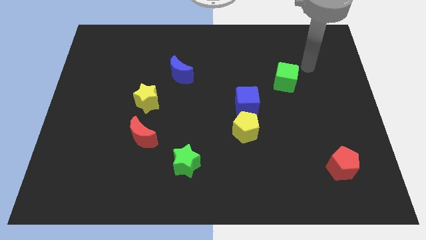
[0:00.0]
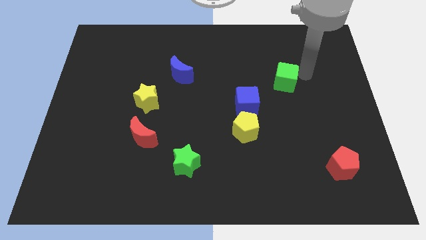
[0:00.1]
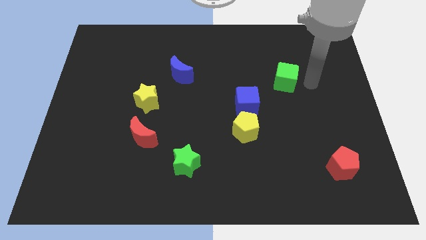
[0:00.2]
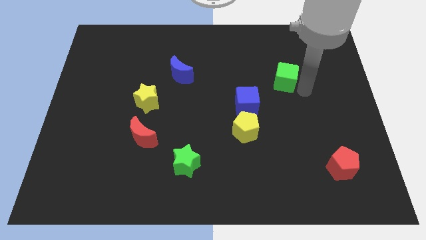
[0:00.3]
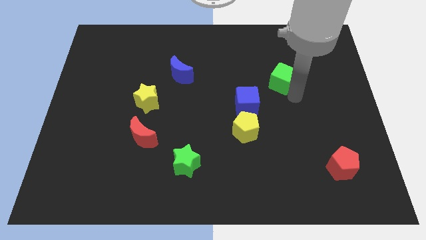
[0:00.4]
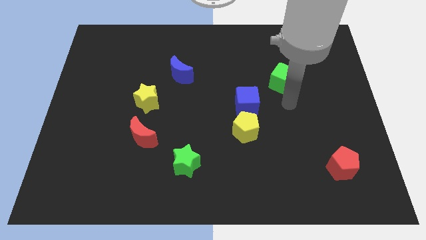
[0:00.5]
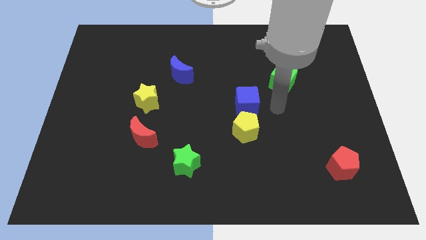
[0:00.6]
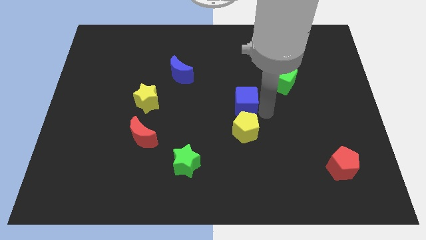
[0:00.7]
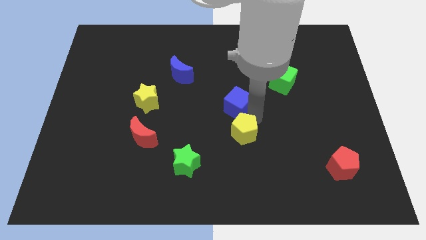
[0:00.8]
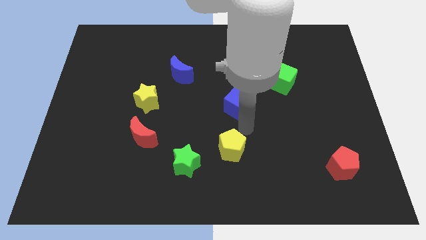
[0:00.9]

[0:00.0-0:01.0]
move the blue cube away from the yellow pentagon

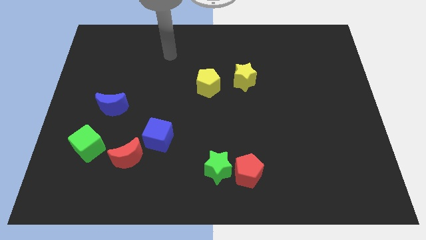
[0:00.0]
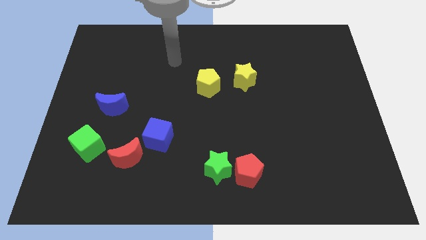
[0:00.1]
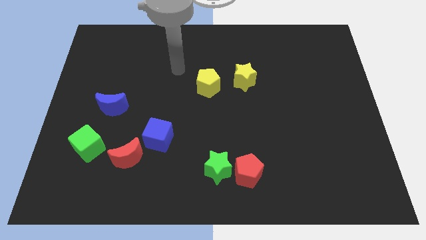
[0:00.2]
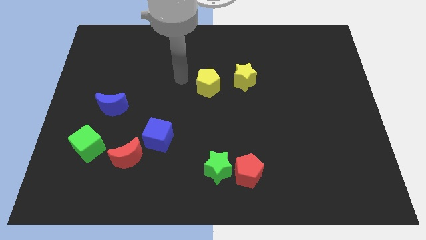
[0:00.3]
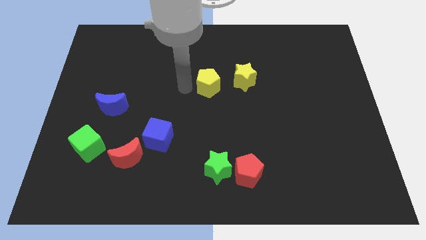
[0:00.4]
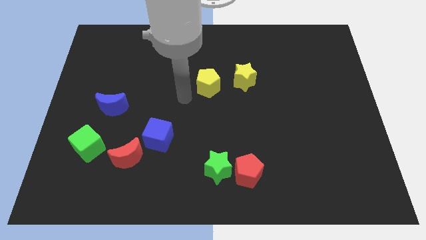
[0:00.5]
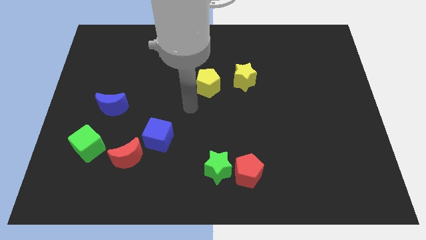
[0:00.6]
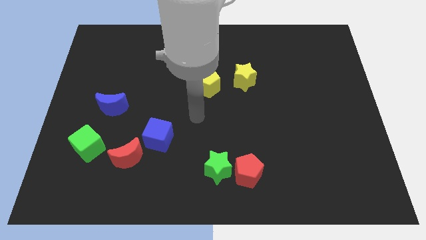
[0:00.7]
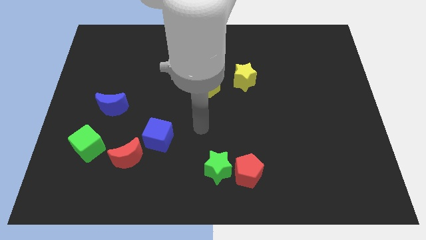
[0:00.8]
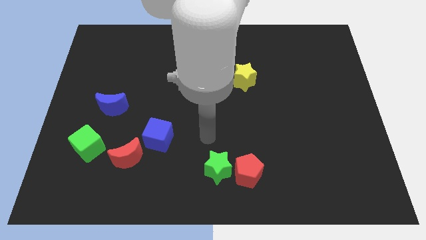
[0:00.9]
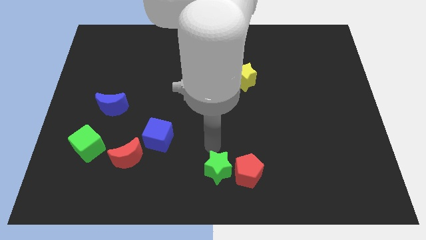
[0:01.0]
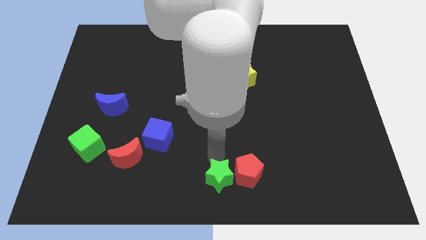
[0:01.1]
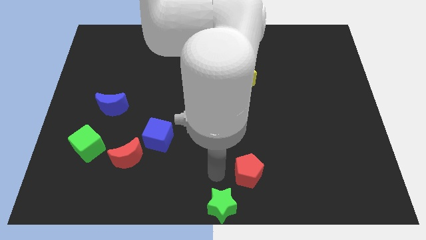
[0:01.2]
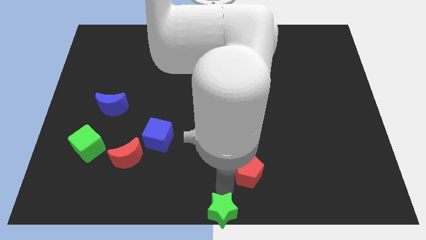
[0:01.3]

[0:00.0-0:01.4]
separate the red pentagon from the green star

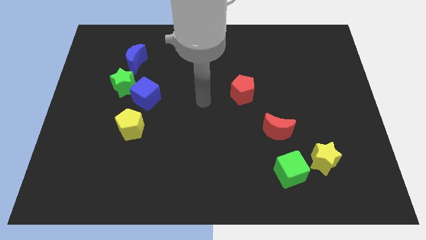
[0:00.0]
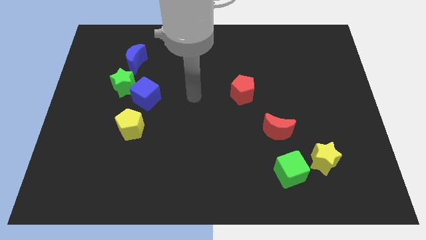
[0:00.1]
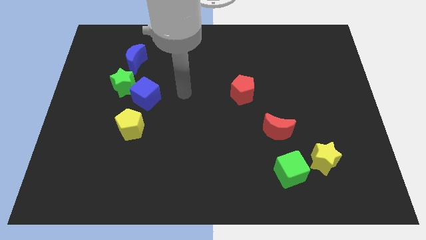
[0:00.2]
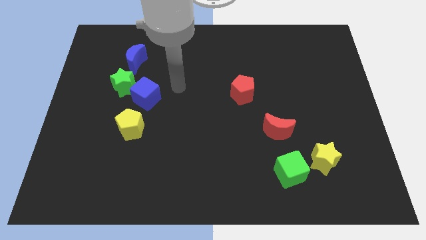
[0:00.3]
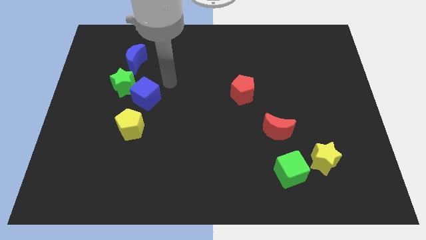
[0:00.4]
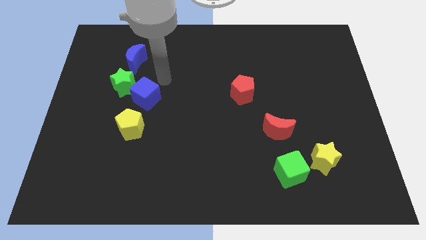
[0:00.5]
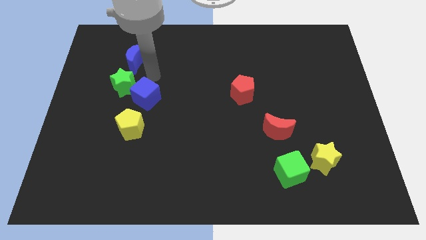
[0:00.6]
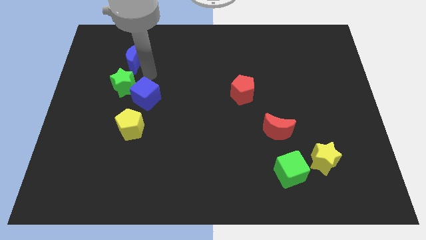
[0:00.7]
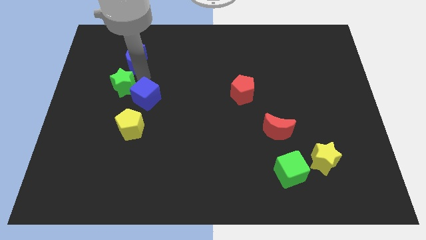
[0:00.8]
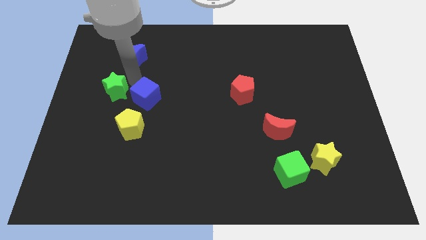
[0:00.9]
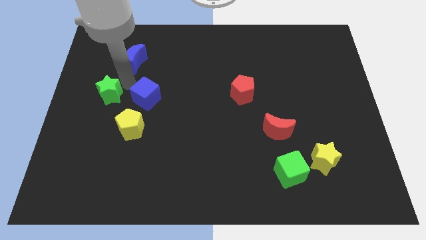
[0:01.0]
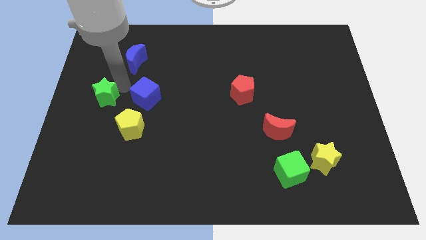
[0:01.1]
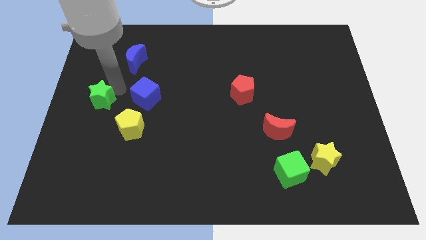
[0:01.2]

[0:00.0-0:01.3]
pull the green star apart from the blue cube and blue moon

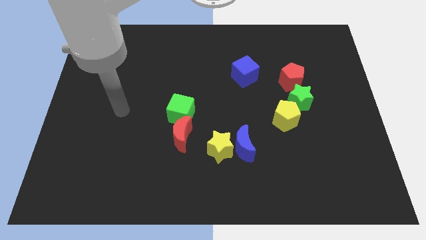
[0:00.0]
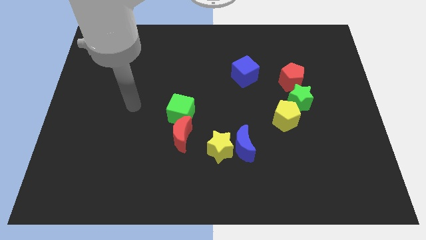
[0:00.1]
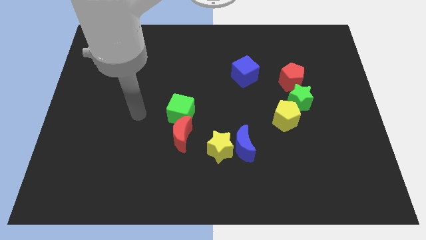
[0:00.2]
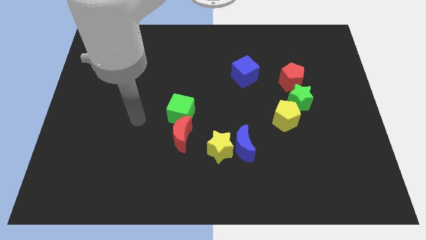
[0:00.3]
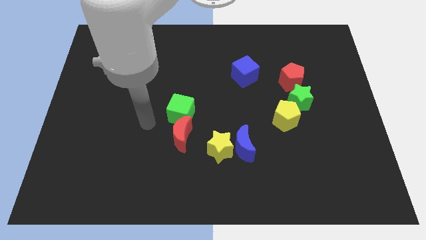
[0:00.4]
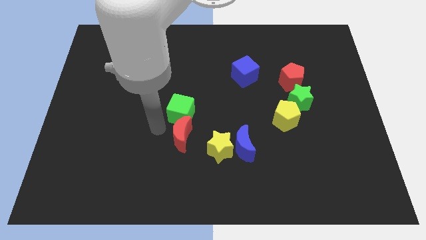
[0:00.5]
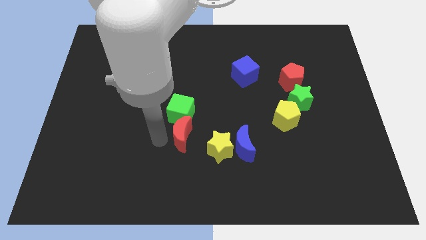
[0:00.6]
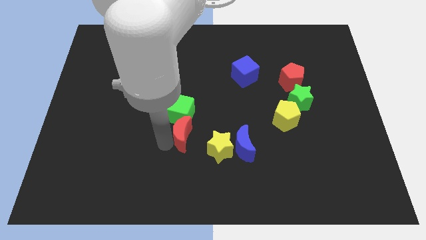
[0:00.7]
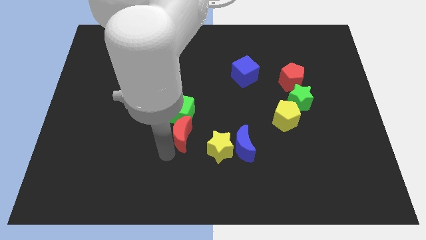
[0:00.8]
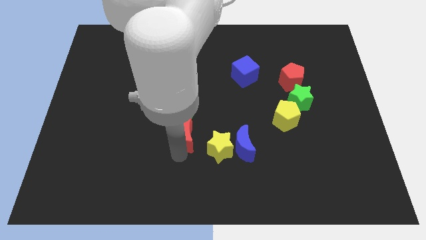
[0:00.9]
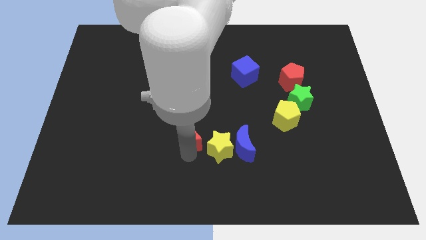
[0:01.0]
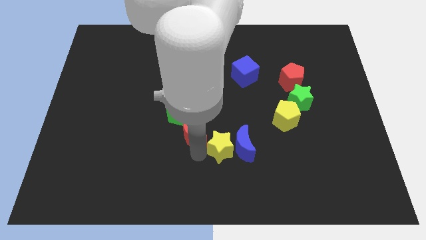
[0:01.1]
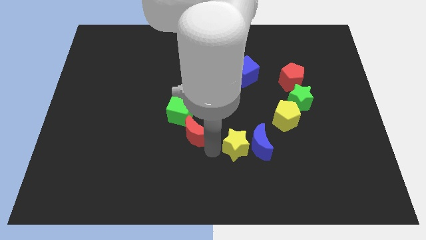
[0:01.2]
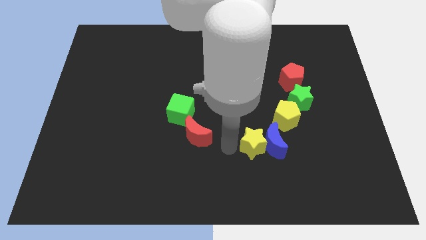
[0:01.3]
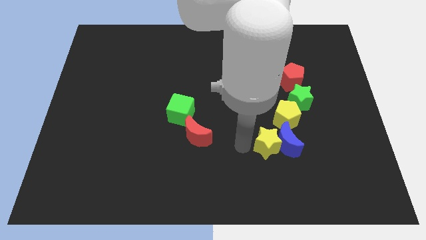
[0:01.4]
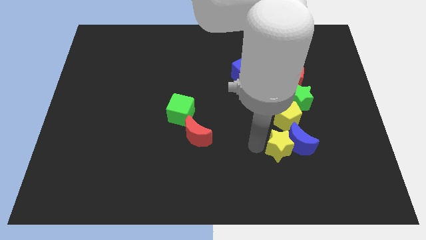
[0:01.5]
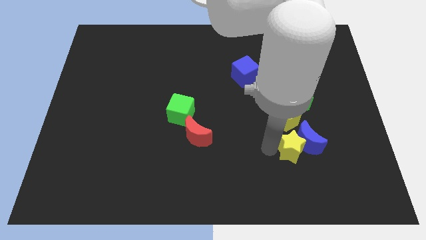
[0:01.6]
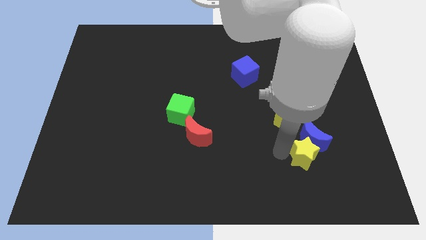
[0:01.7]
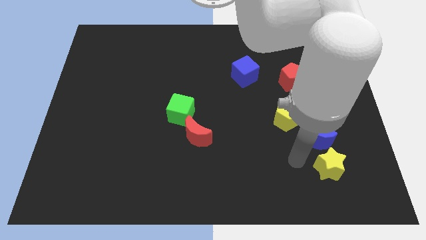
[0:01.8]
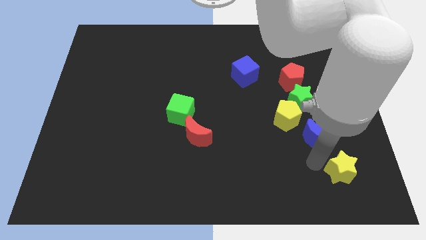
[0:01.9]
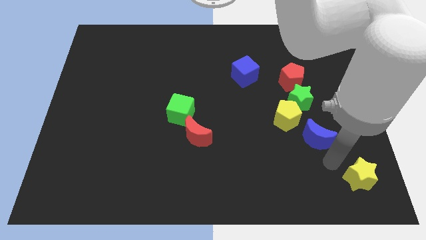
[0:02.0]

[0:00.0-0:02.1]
move the blue moon away from the yellow star

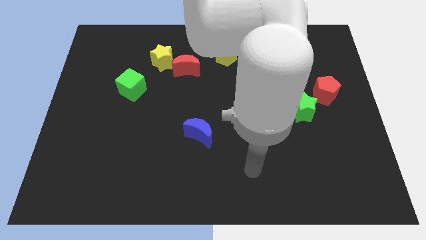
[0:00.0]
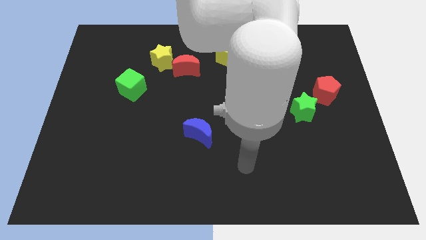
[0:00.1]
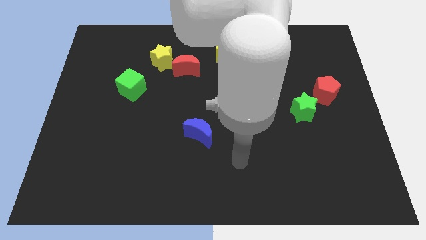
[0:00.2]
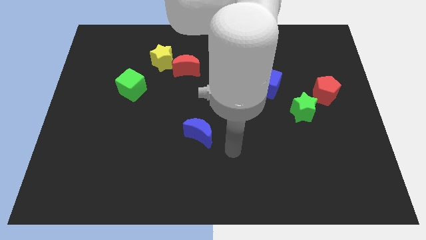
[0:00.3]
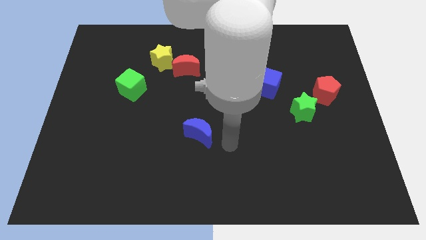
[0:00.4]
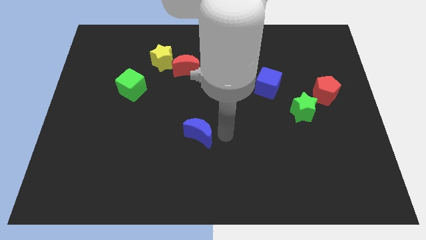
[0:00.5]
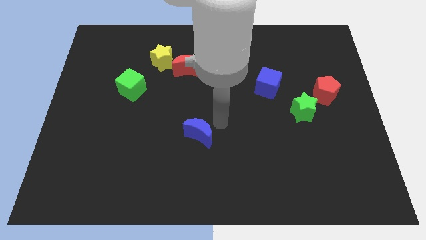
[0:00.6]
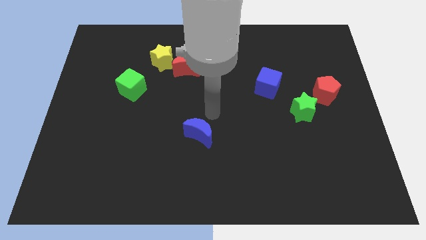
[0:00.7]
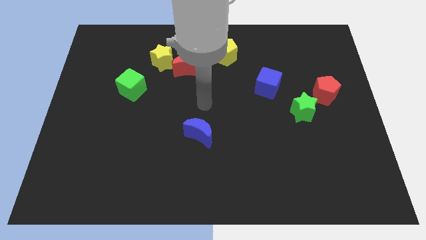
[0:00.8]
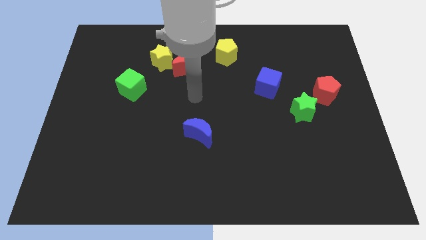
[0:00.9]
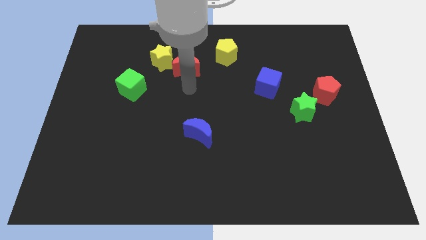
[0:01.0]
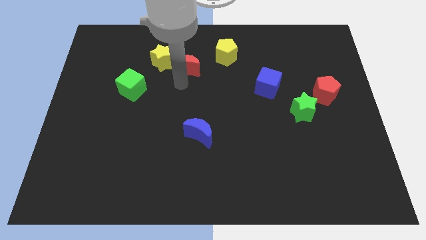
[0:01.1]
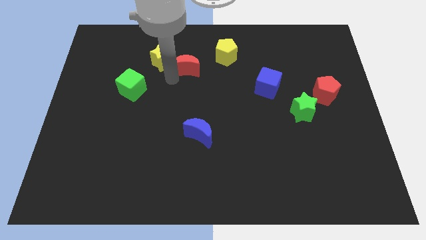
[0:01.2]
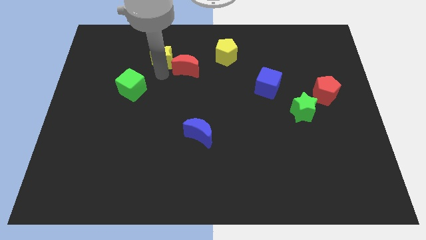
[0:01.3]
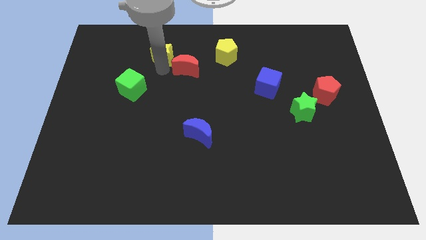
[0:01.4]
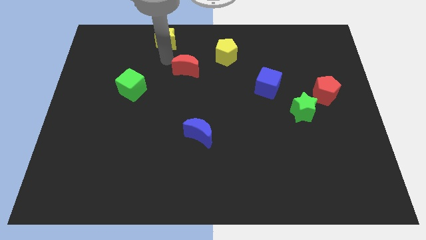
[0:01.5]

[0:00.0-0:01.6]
pull the red moon apart from the yellow star

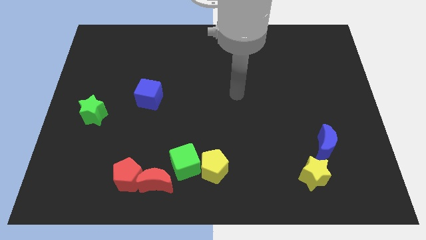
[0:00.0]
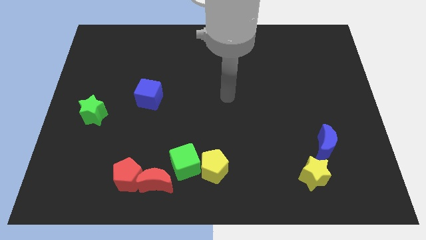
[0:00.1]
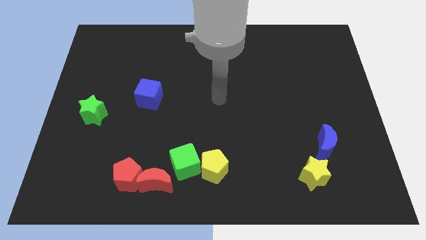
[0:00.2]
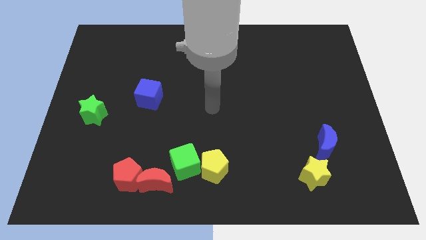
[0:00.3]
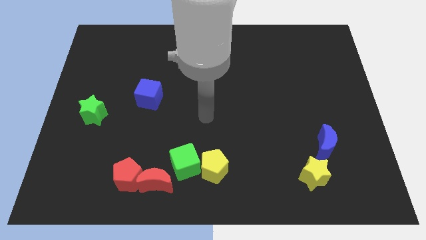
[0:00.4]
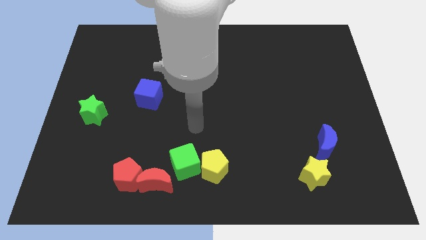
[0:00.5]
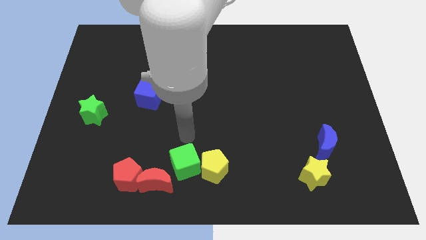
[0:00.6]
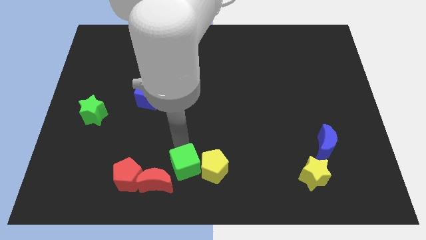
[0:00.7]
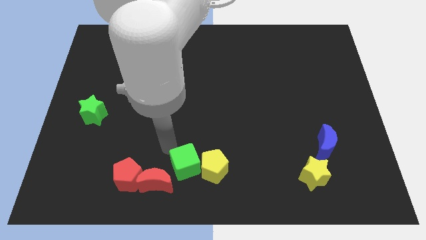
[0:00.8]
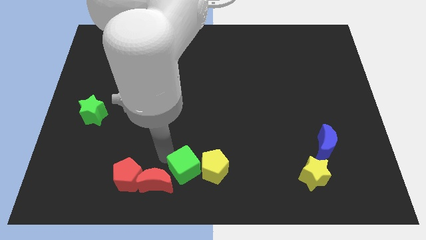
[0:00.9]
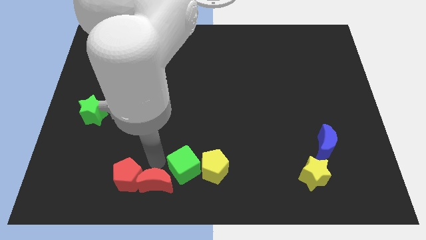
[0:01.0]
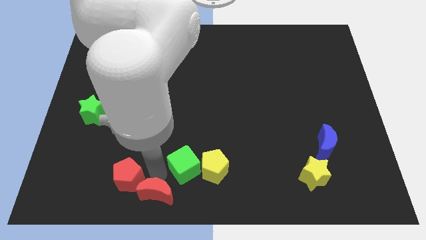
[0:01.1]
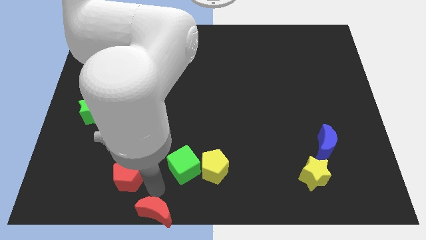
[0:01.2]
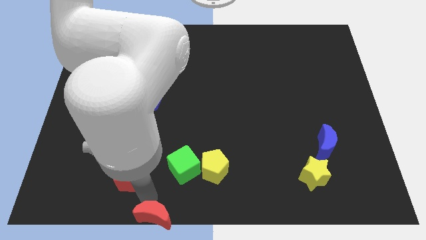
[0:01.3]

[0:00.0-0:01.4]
pull the red pentagon apart from the red moon

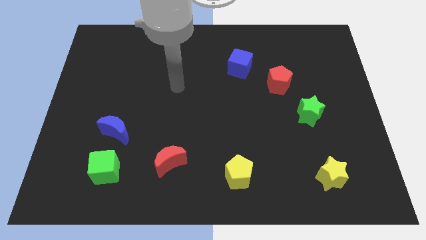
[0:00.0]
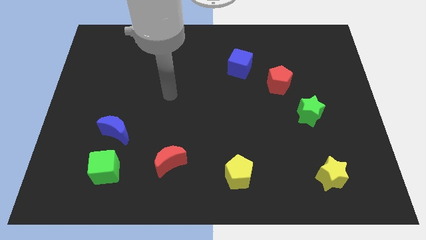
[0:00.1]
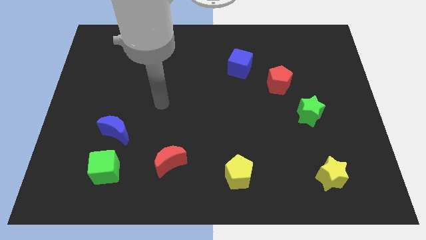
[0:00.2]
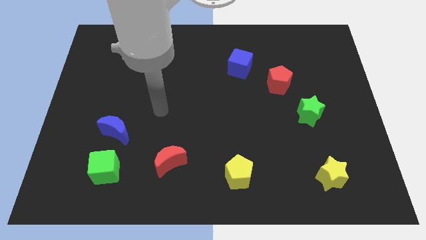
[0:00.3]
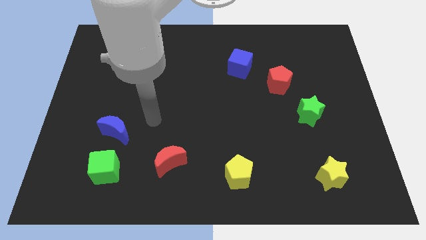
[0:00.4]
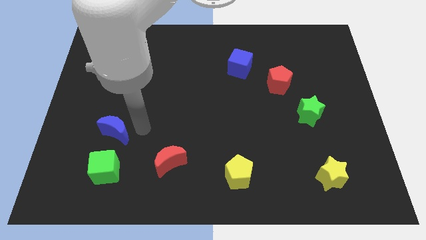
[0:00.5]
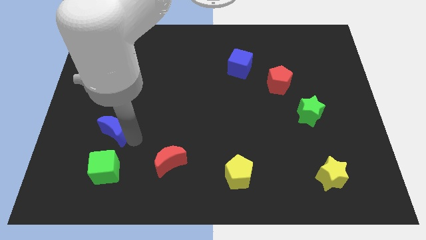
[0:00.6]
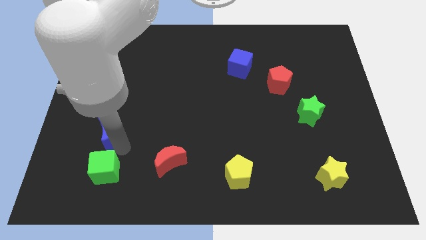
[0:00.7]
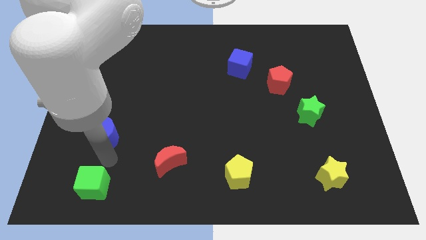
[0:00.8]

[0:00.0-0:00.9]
separate the blue moon from the green cube
